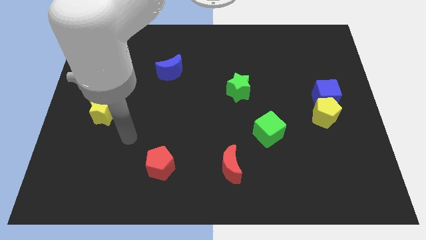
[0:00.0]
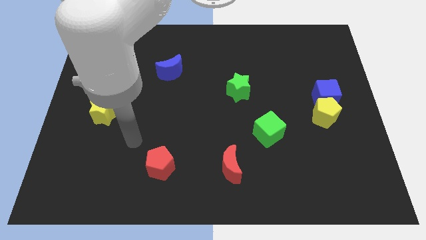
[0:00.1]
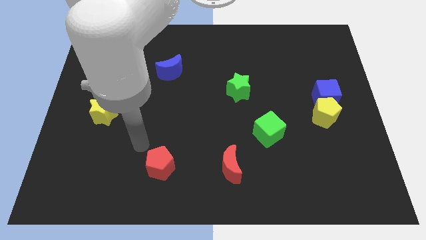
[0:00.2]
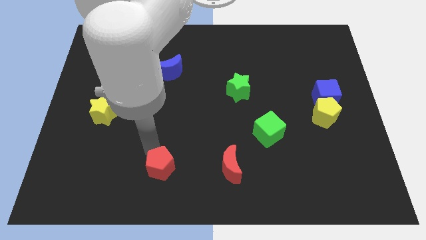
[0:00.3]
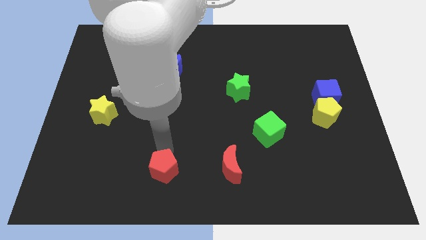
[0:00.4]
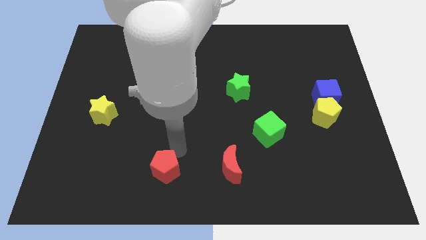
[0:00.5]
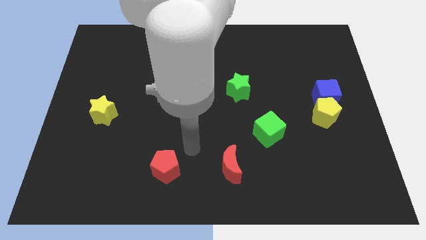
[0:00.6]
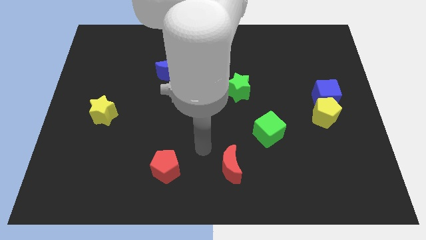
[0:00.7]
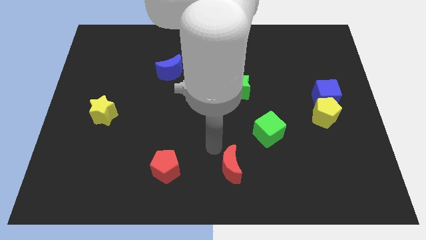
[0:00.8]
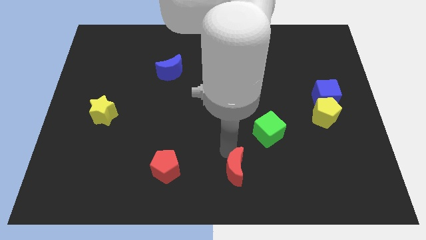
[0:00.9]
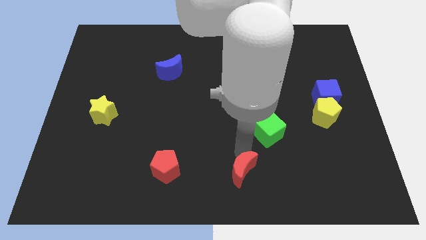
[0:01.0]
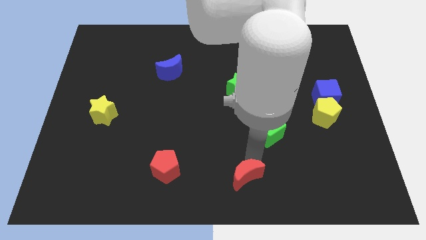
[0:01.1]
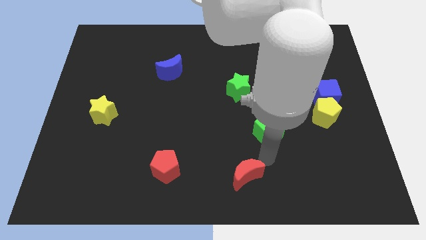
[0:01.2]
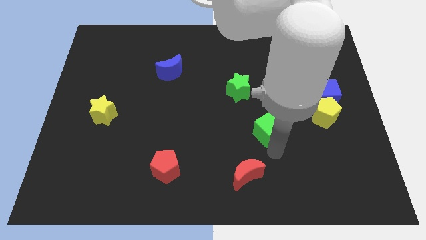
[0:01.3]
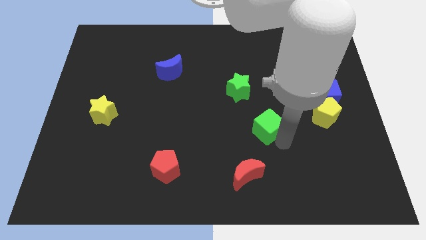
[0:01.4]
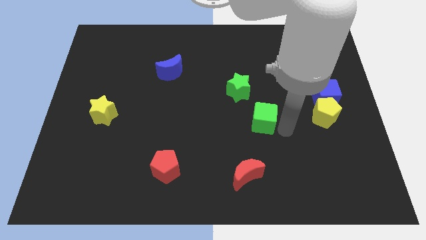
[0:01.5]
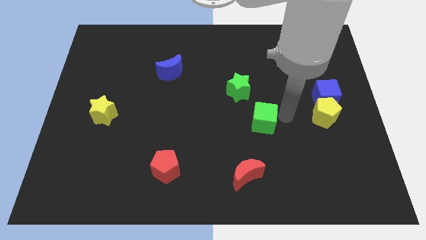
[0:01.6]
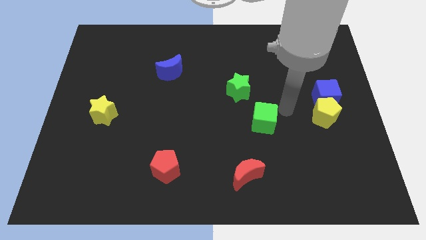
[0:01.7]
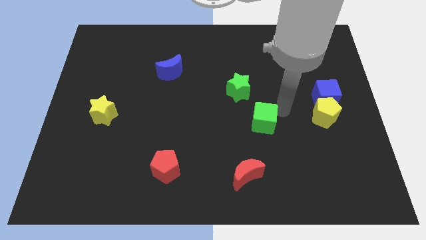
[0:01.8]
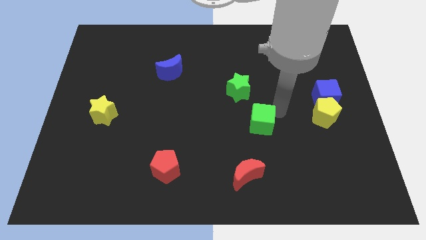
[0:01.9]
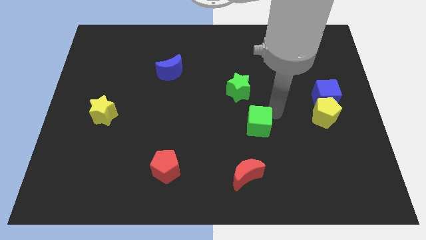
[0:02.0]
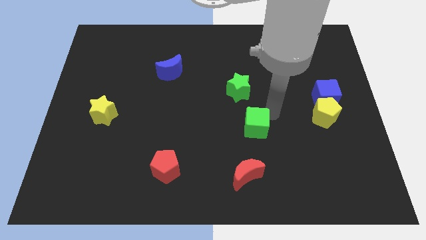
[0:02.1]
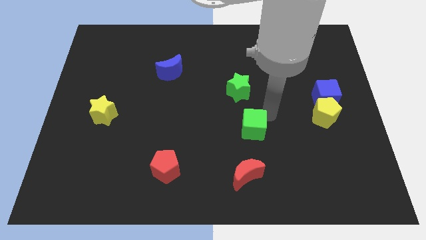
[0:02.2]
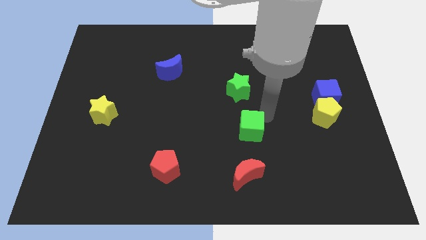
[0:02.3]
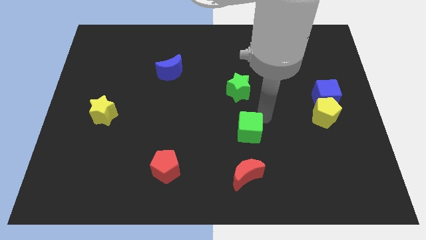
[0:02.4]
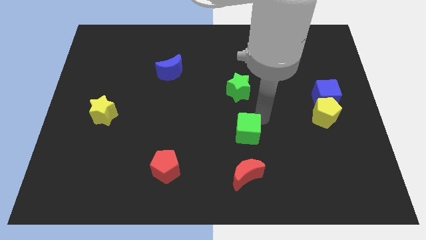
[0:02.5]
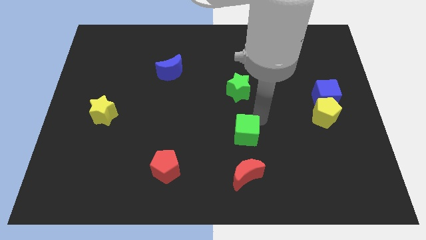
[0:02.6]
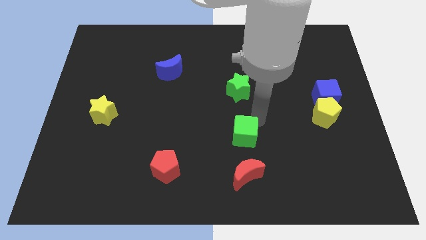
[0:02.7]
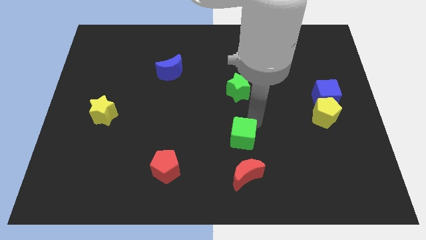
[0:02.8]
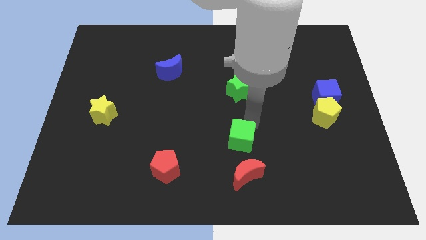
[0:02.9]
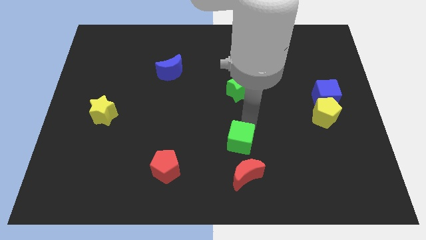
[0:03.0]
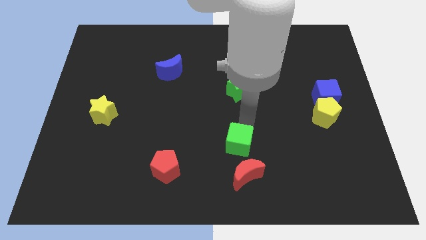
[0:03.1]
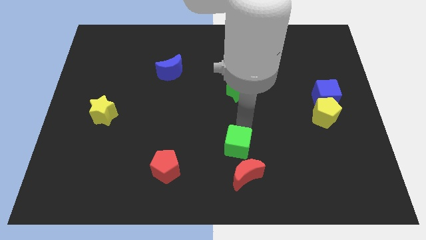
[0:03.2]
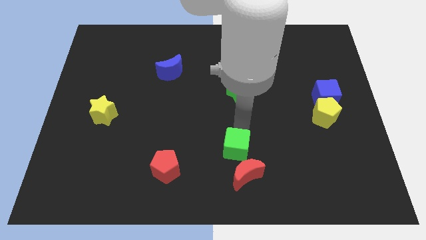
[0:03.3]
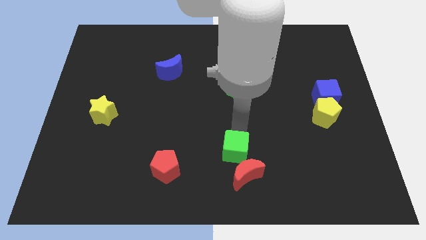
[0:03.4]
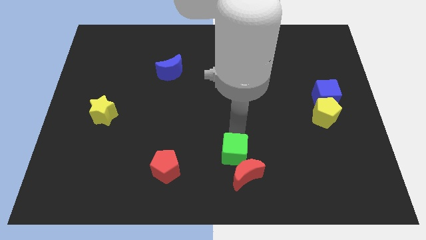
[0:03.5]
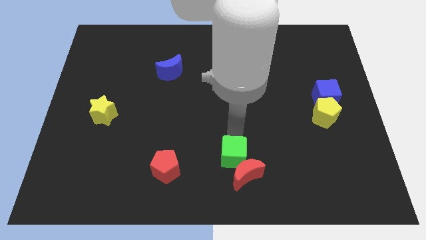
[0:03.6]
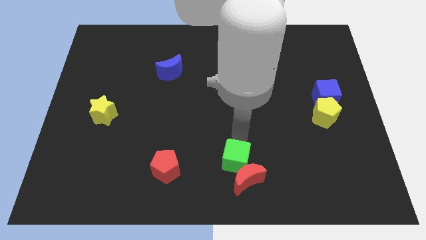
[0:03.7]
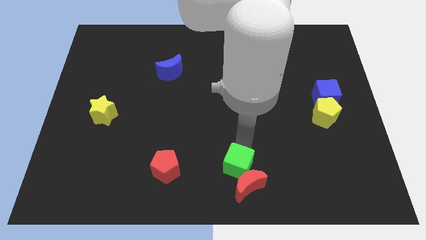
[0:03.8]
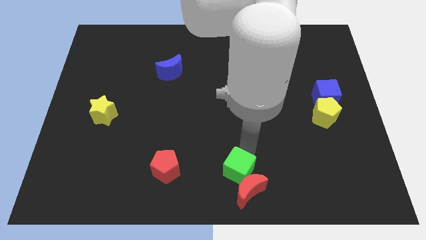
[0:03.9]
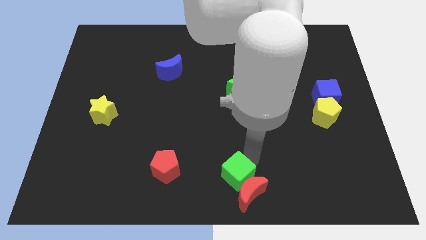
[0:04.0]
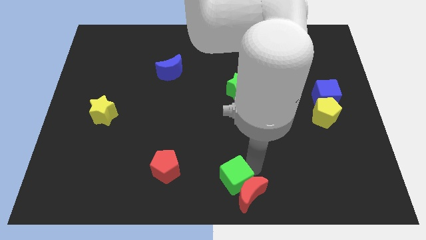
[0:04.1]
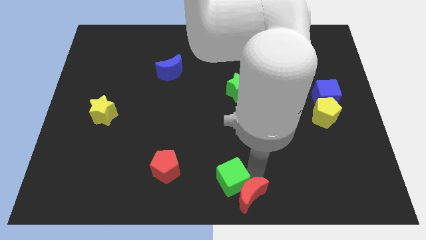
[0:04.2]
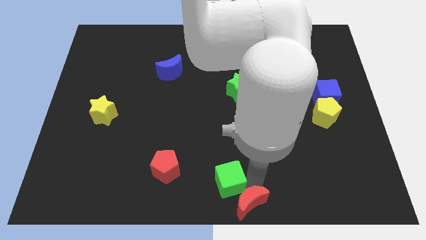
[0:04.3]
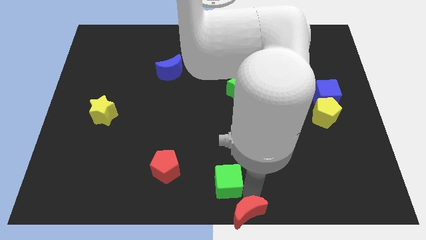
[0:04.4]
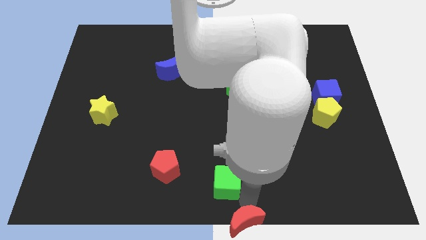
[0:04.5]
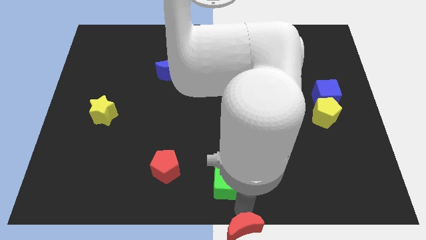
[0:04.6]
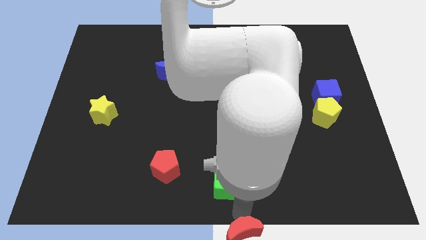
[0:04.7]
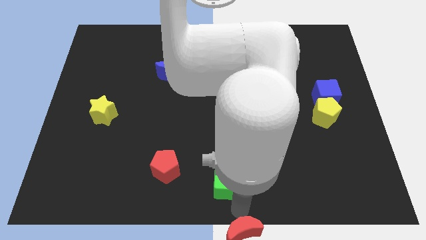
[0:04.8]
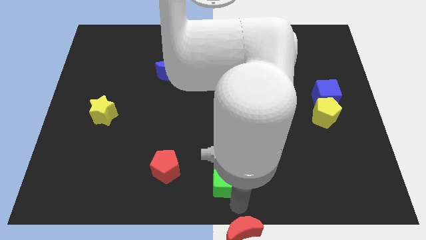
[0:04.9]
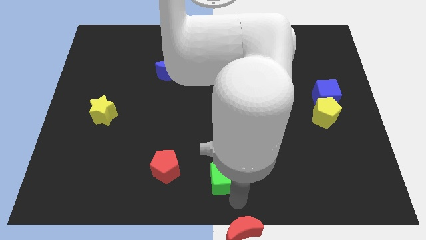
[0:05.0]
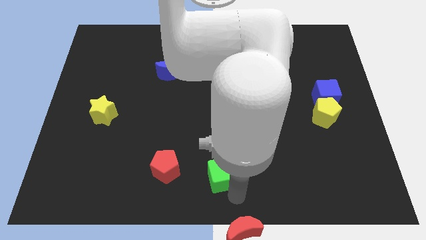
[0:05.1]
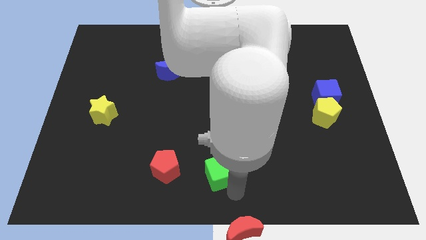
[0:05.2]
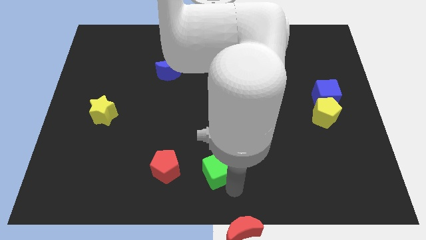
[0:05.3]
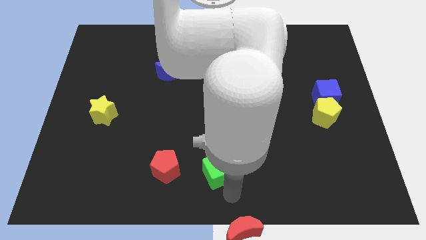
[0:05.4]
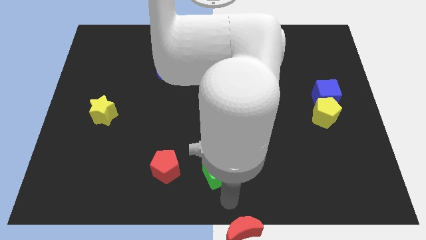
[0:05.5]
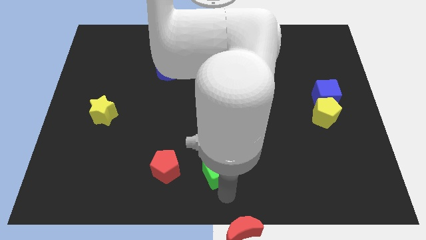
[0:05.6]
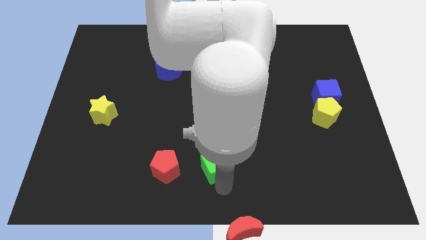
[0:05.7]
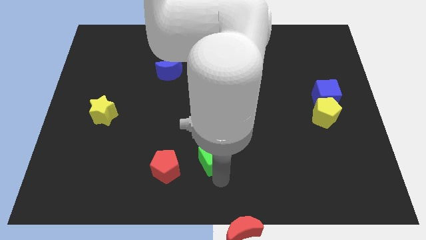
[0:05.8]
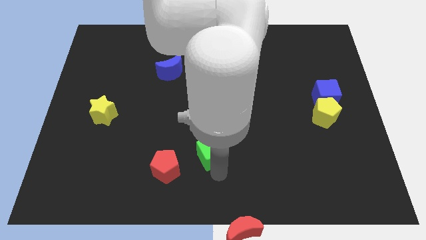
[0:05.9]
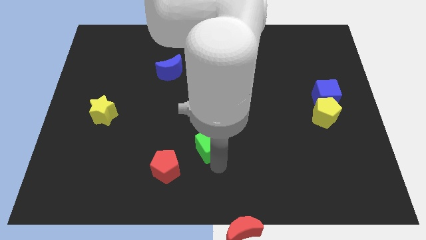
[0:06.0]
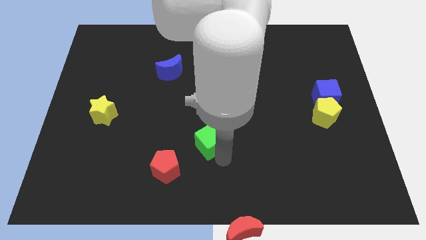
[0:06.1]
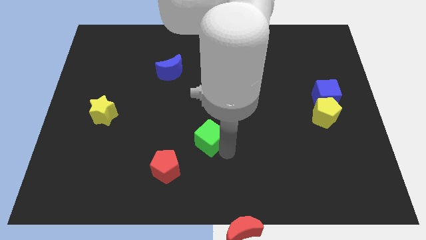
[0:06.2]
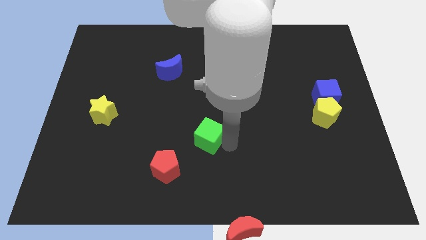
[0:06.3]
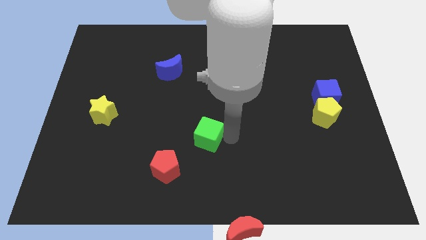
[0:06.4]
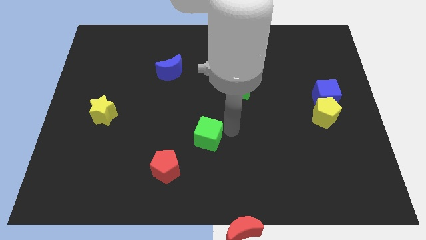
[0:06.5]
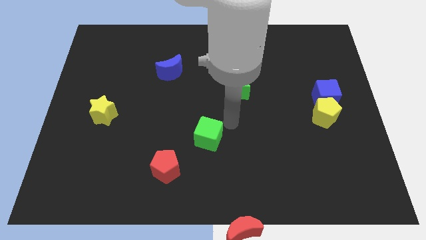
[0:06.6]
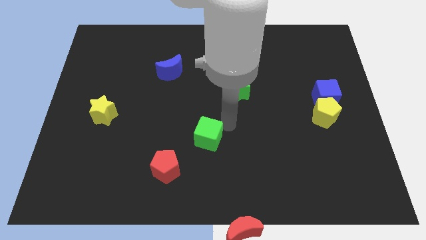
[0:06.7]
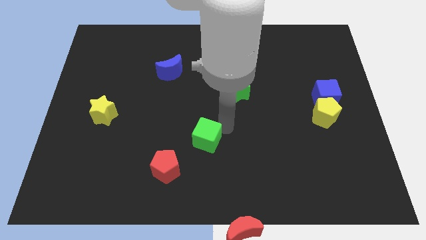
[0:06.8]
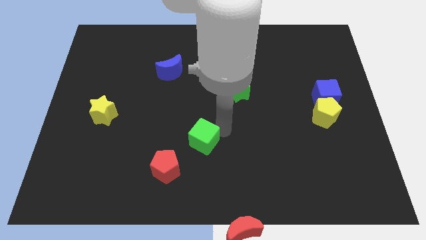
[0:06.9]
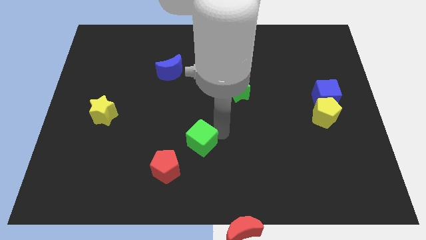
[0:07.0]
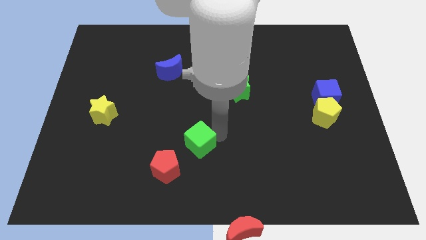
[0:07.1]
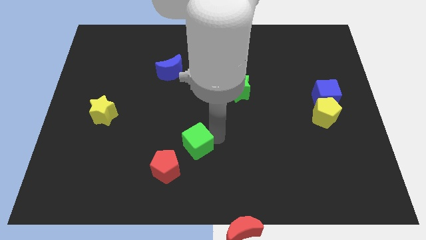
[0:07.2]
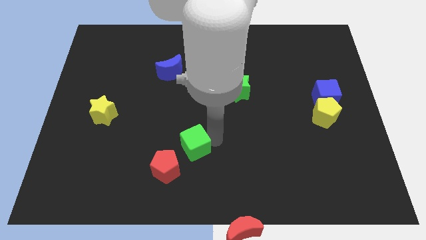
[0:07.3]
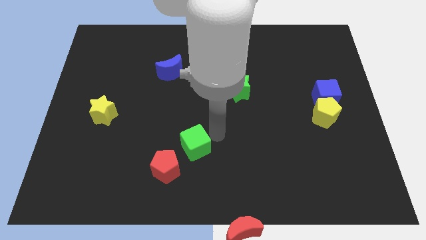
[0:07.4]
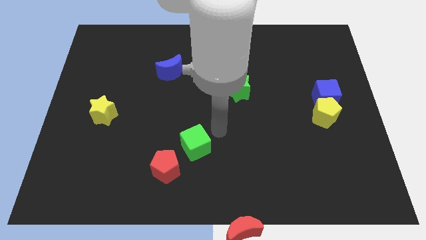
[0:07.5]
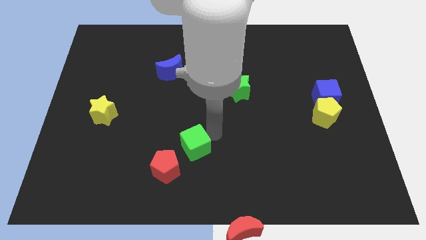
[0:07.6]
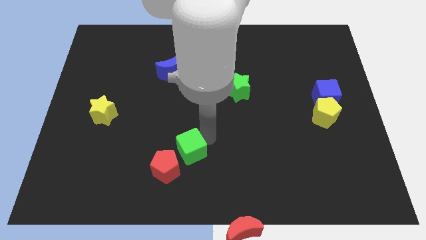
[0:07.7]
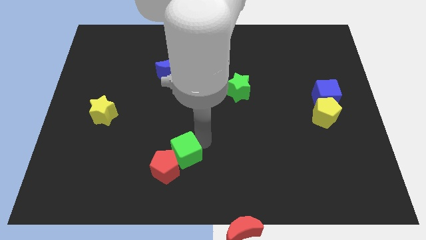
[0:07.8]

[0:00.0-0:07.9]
move the green cube towards the red pentagon
